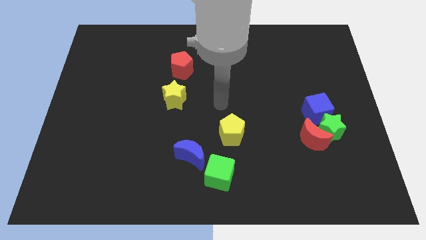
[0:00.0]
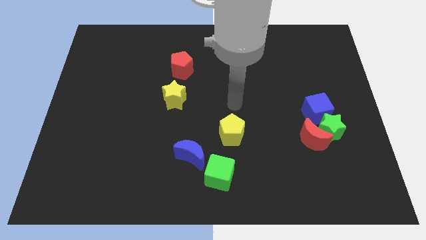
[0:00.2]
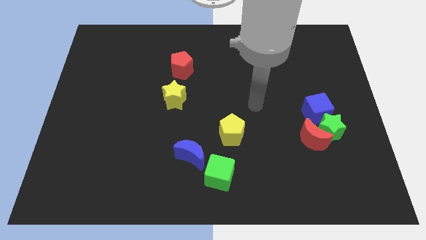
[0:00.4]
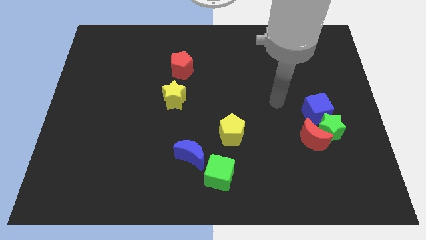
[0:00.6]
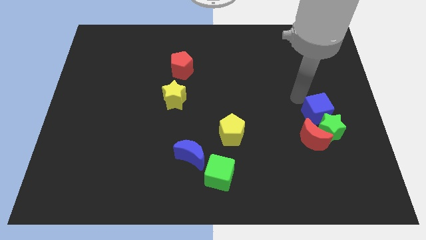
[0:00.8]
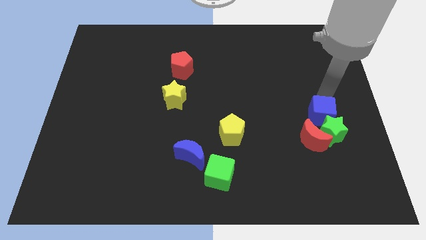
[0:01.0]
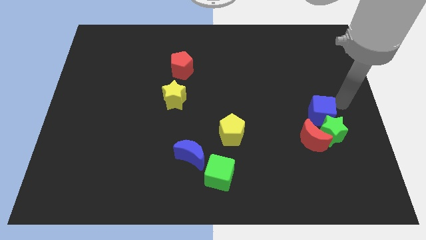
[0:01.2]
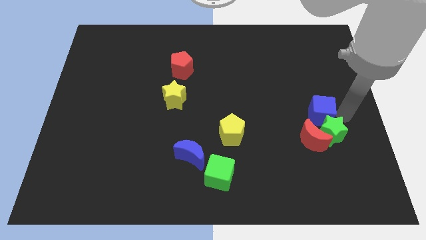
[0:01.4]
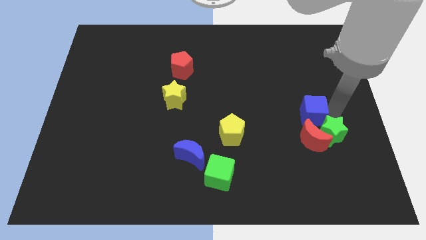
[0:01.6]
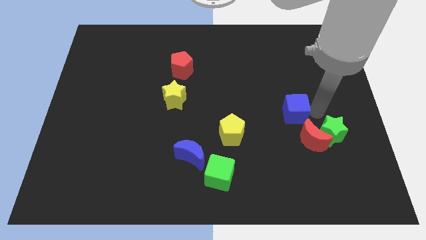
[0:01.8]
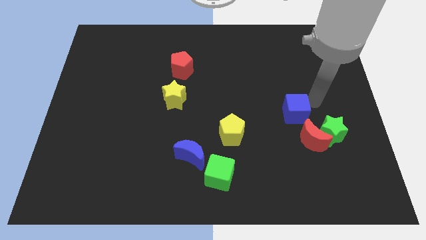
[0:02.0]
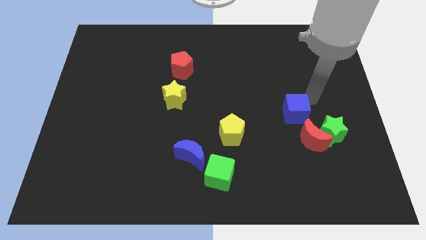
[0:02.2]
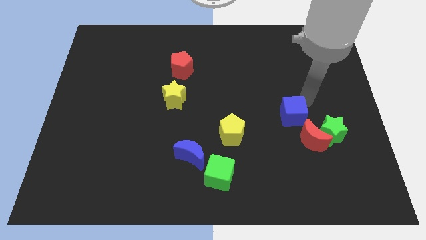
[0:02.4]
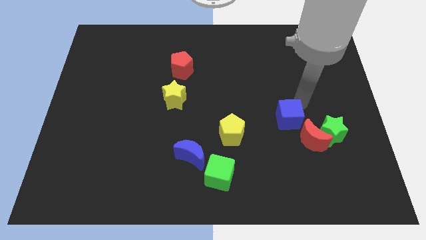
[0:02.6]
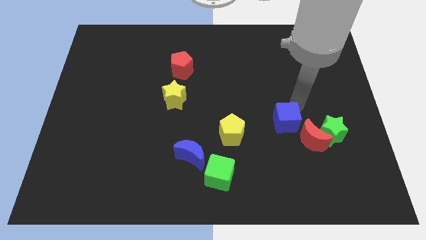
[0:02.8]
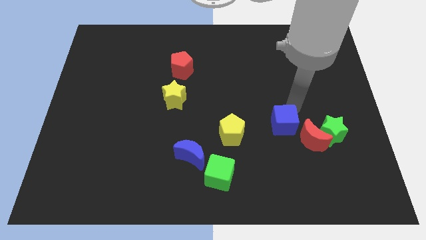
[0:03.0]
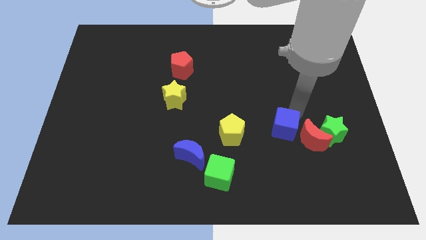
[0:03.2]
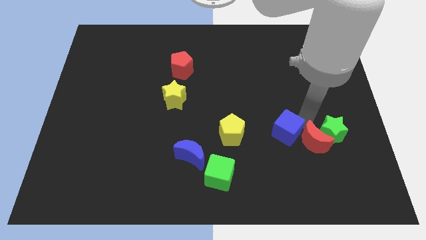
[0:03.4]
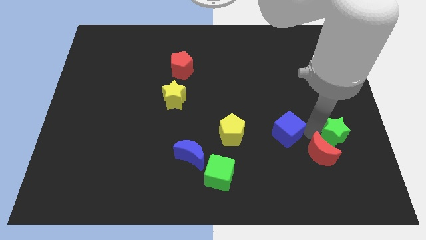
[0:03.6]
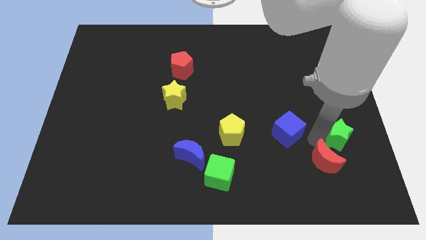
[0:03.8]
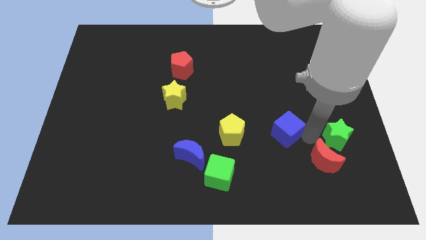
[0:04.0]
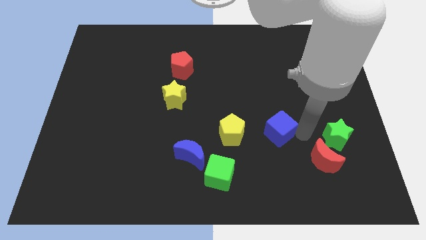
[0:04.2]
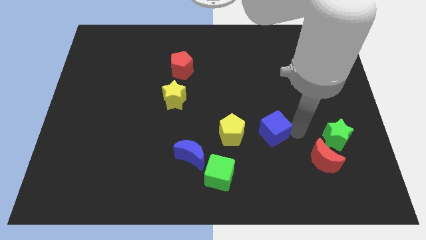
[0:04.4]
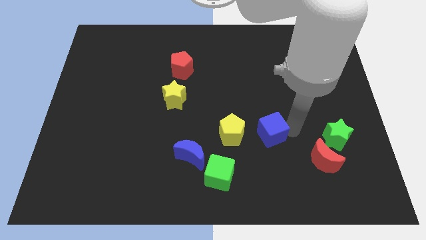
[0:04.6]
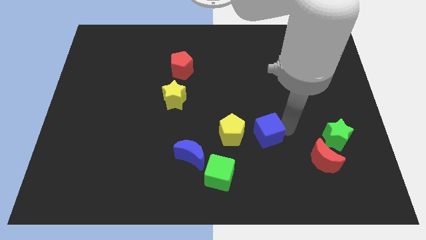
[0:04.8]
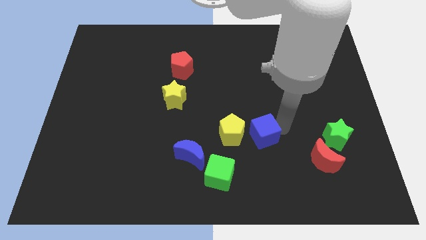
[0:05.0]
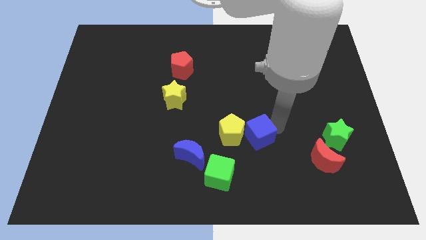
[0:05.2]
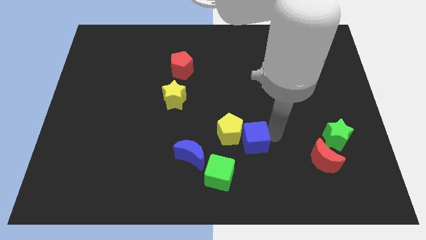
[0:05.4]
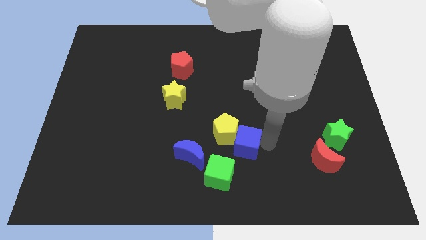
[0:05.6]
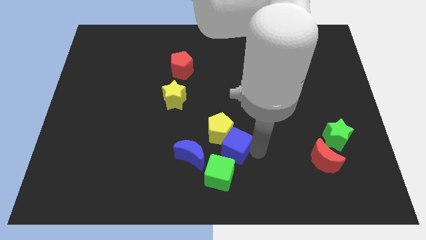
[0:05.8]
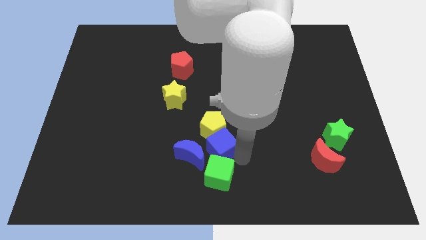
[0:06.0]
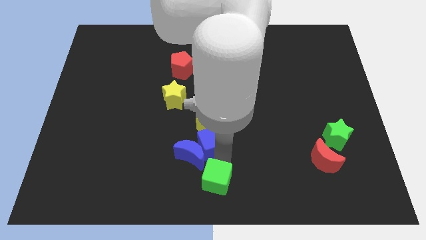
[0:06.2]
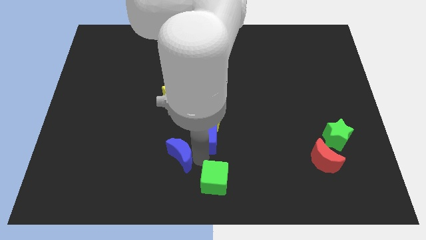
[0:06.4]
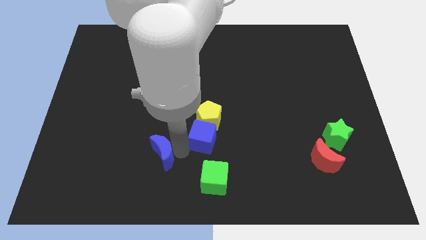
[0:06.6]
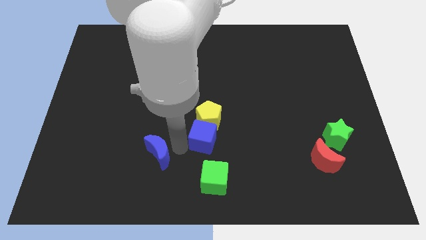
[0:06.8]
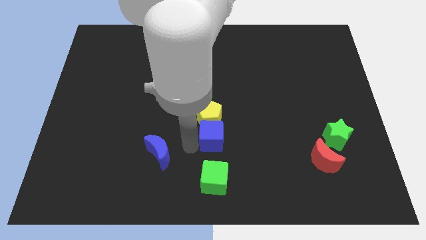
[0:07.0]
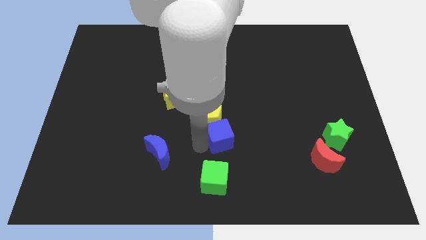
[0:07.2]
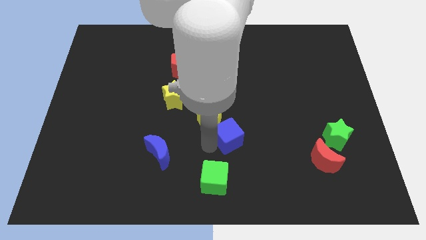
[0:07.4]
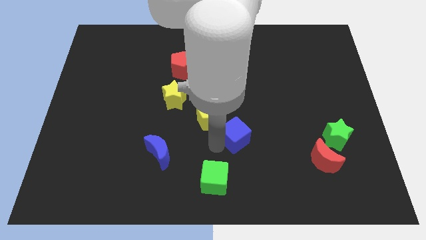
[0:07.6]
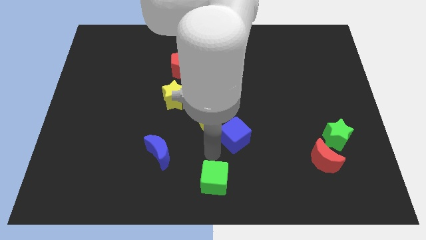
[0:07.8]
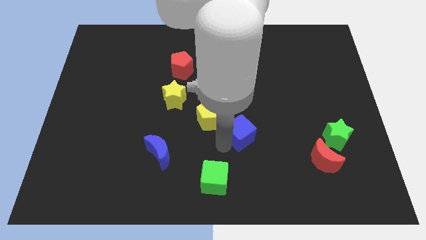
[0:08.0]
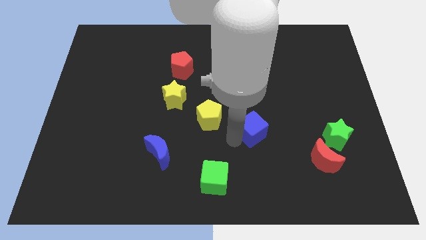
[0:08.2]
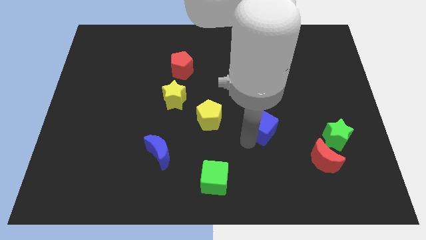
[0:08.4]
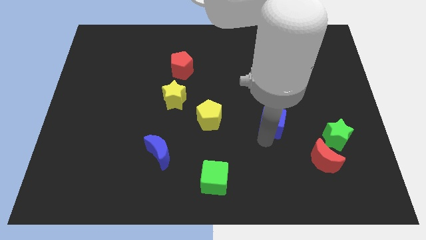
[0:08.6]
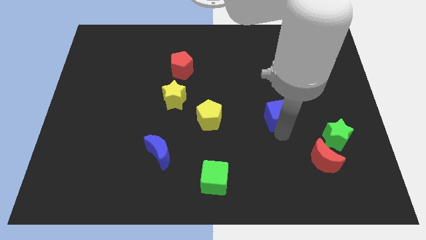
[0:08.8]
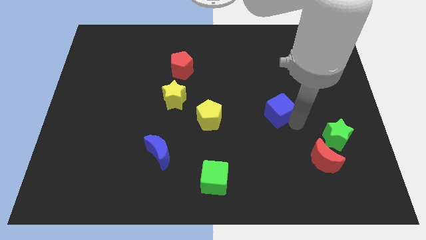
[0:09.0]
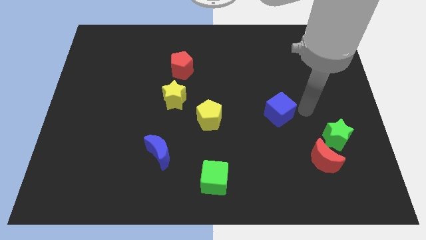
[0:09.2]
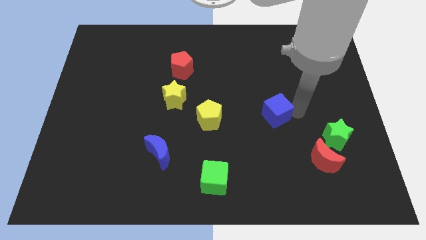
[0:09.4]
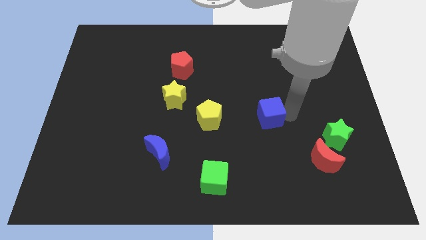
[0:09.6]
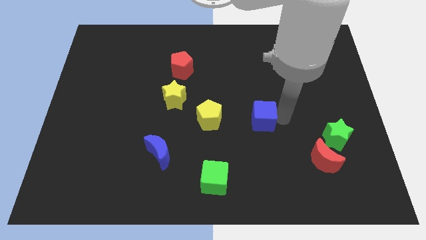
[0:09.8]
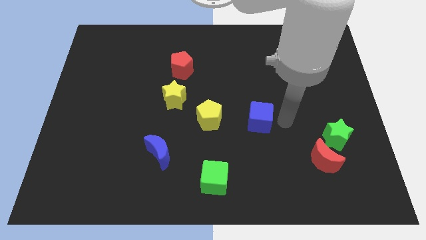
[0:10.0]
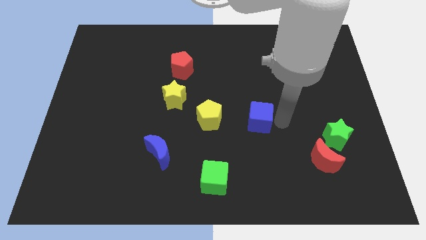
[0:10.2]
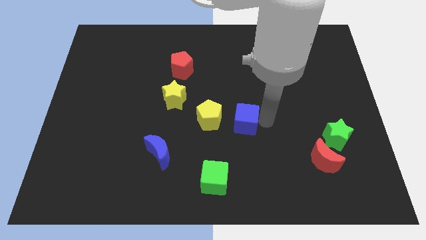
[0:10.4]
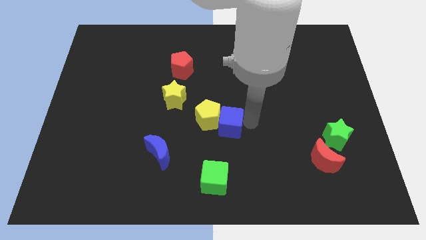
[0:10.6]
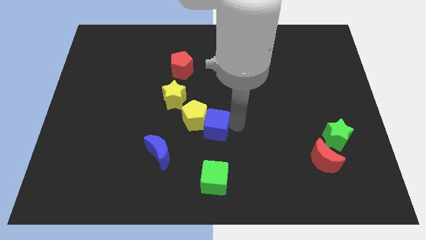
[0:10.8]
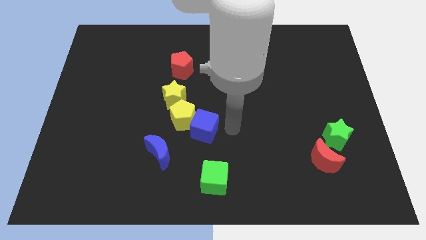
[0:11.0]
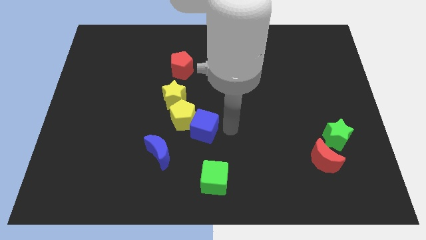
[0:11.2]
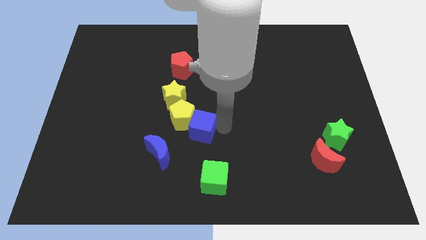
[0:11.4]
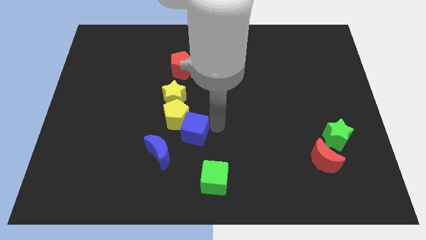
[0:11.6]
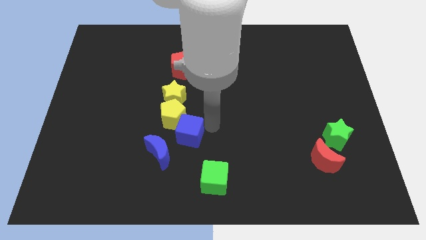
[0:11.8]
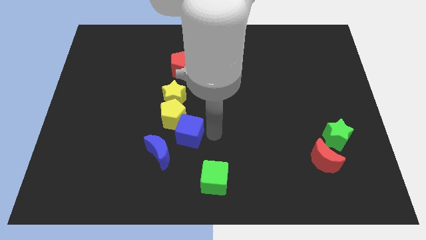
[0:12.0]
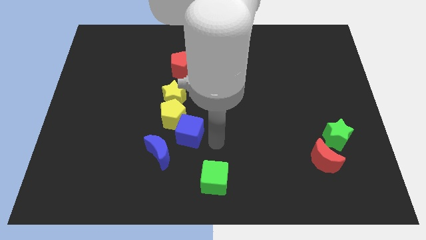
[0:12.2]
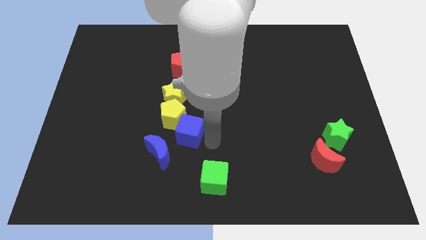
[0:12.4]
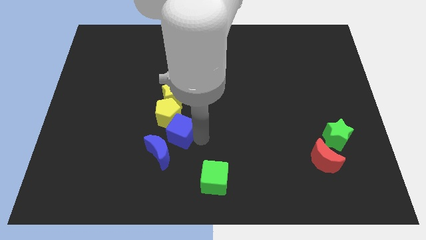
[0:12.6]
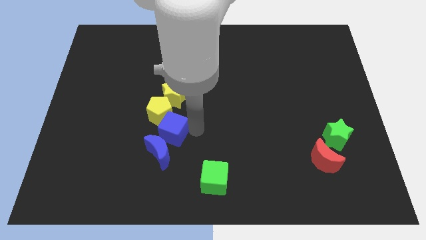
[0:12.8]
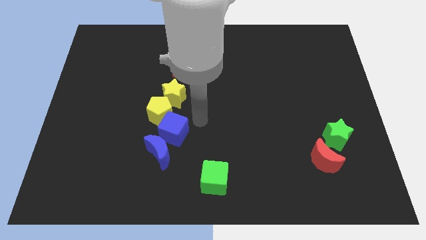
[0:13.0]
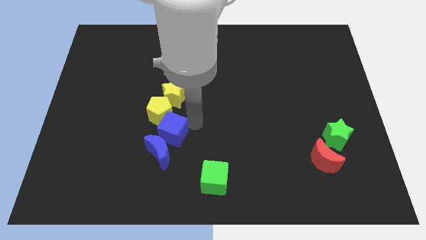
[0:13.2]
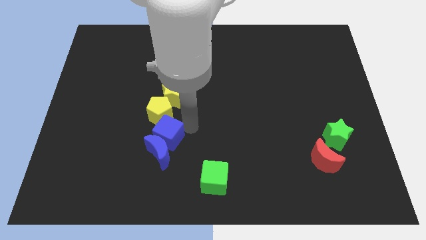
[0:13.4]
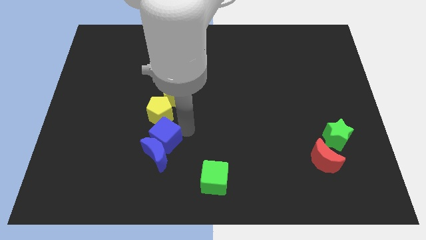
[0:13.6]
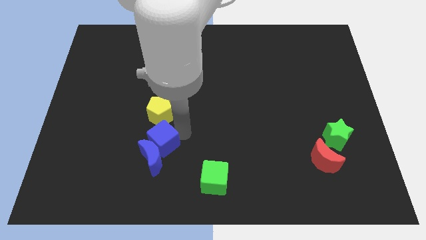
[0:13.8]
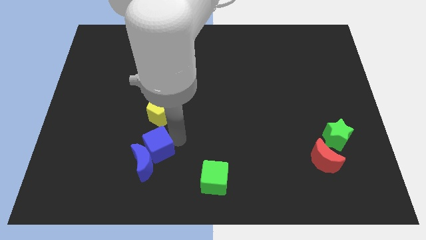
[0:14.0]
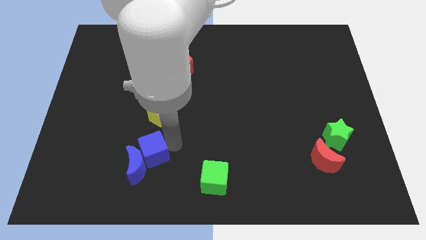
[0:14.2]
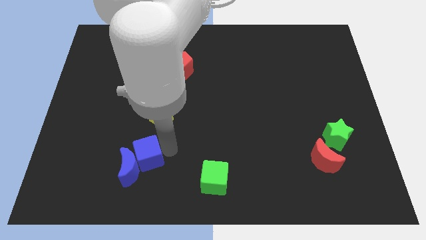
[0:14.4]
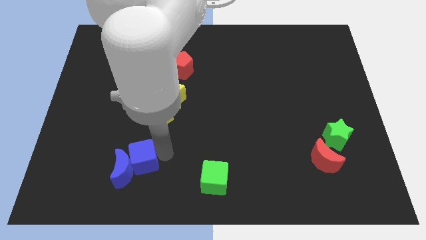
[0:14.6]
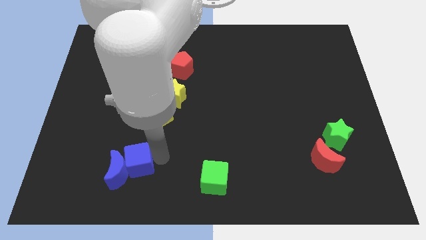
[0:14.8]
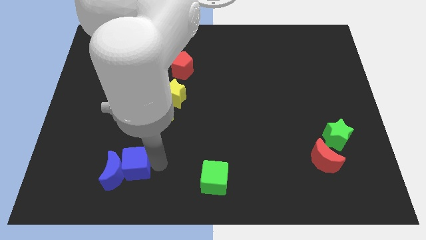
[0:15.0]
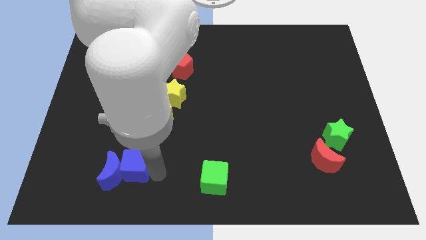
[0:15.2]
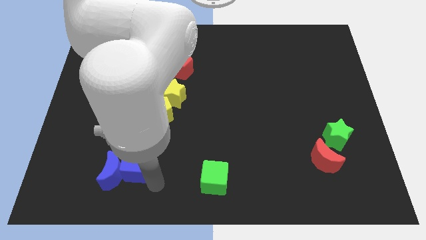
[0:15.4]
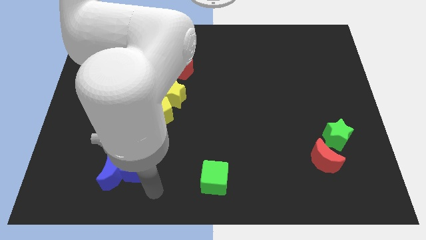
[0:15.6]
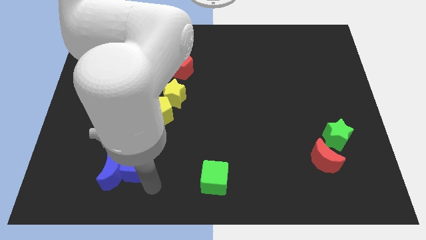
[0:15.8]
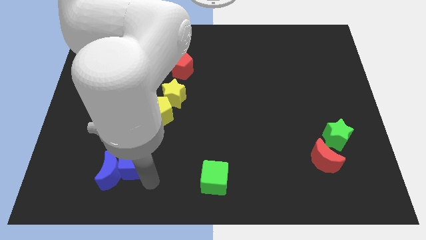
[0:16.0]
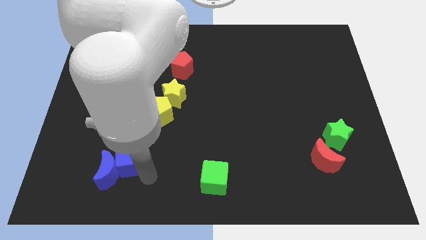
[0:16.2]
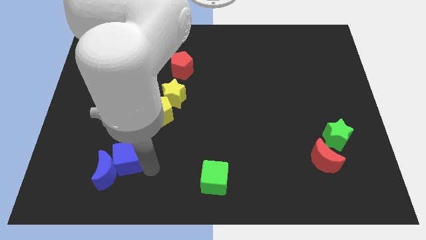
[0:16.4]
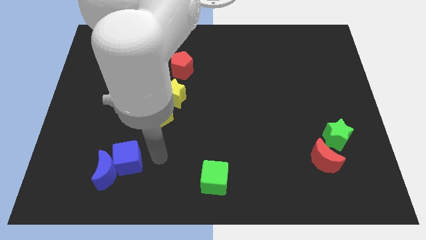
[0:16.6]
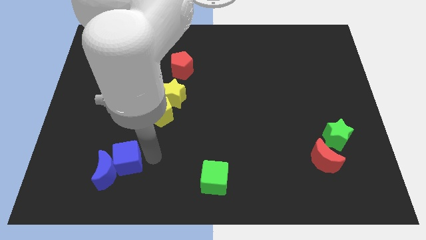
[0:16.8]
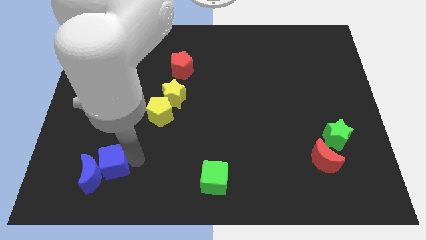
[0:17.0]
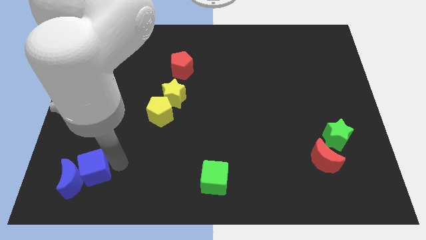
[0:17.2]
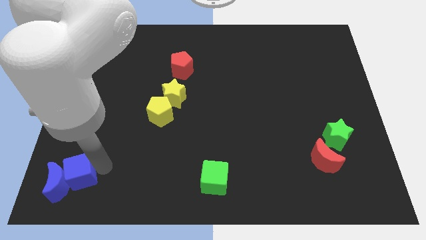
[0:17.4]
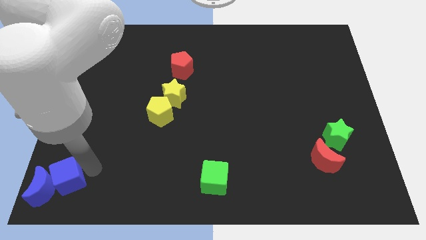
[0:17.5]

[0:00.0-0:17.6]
slide the blue cube to the bottom left
